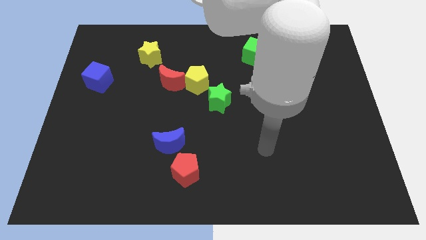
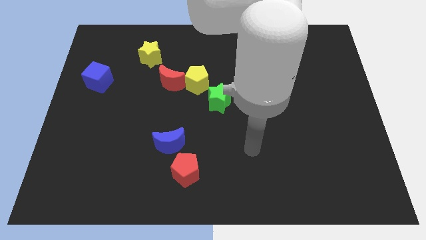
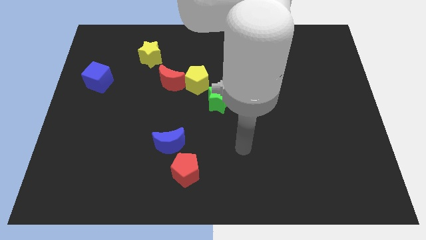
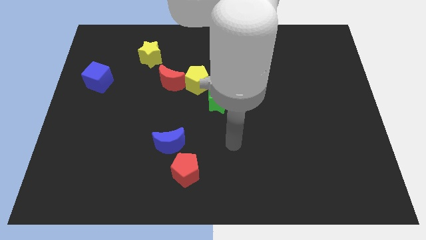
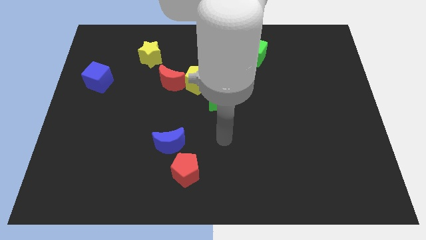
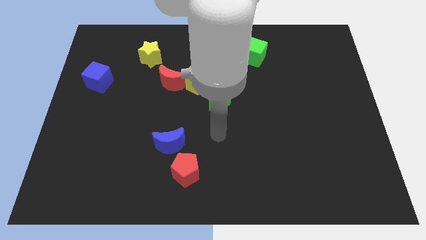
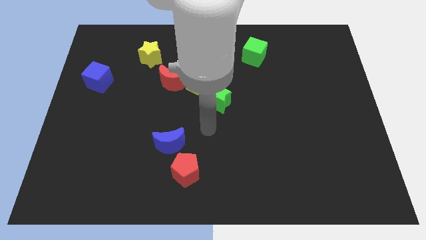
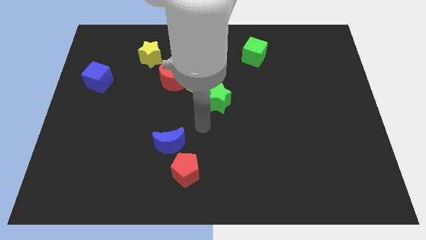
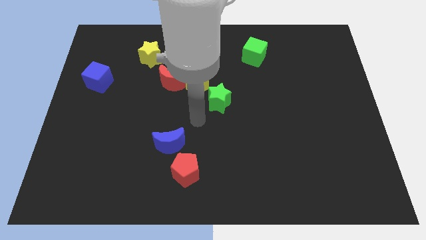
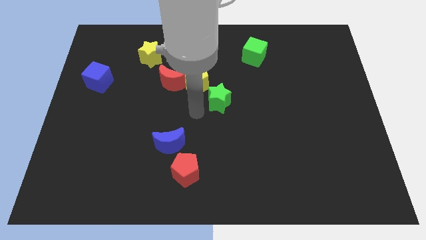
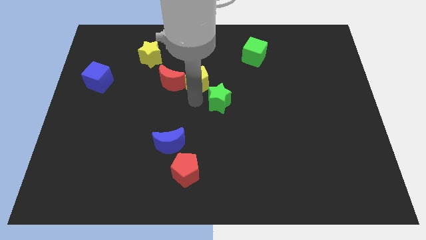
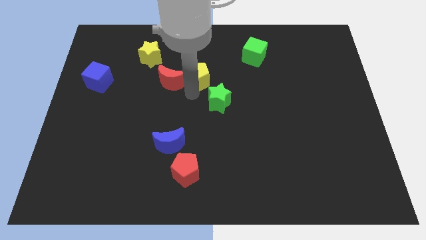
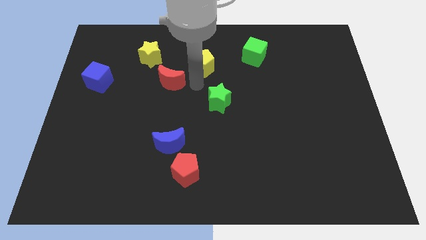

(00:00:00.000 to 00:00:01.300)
pull the red moon apart from the yellow pentagon

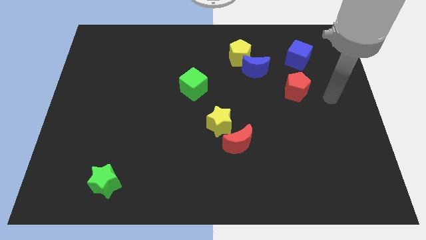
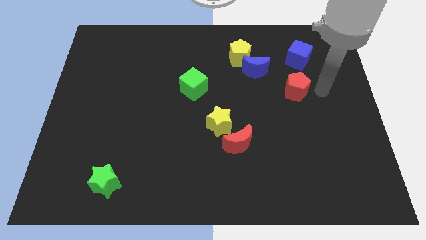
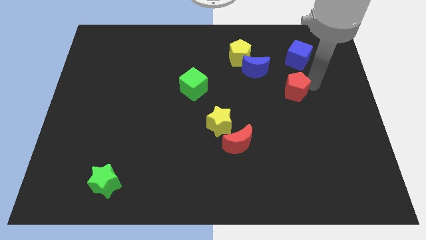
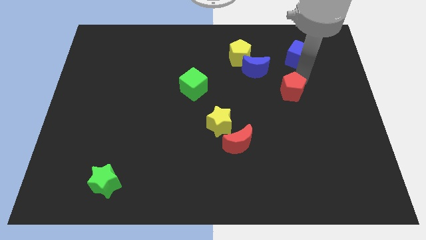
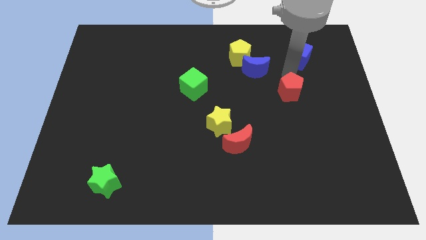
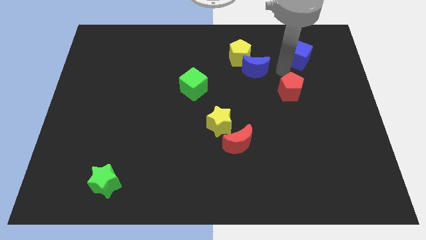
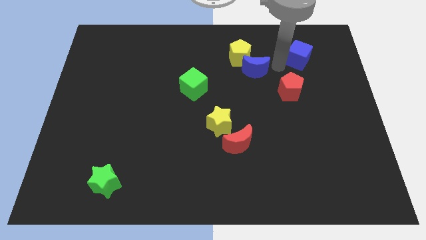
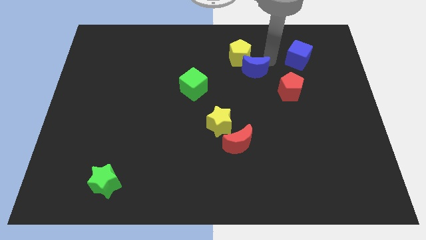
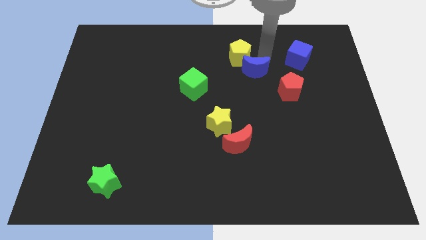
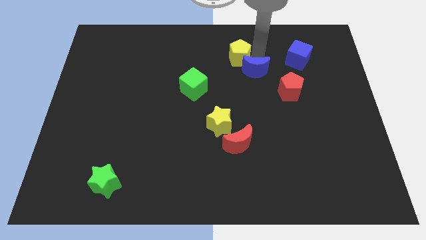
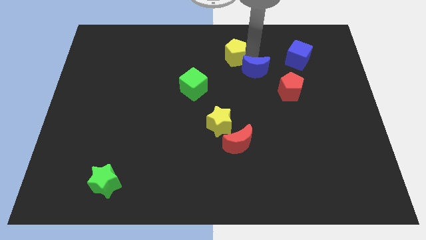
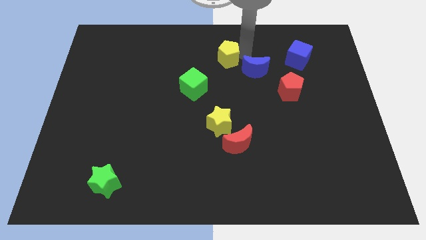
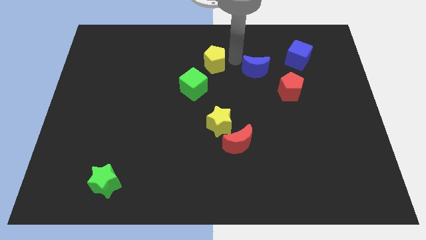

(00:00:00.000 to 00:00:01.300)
separate the blue moon from the yellow pentagon

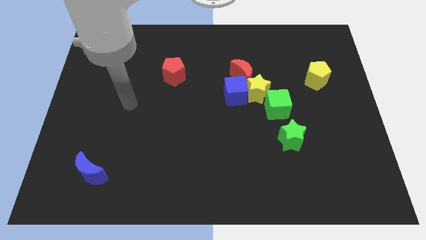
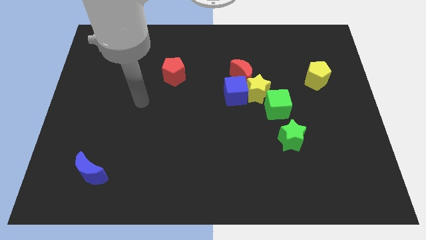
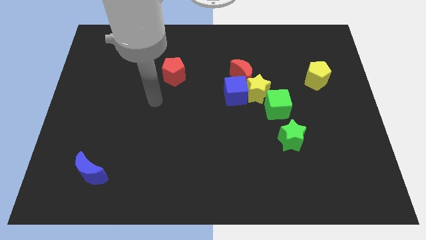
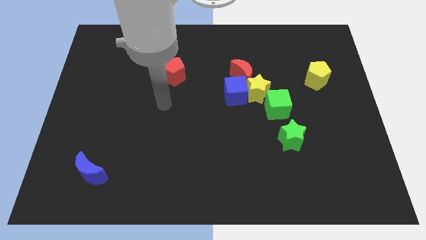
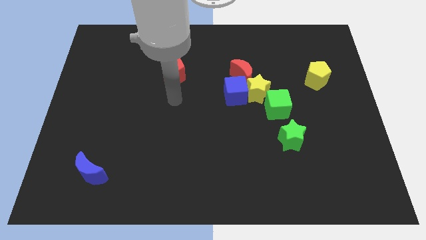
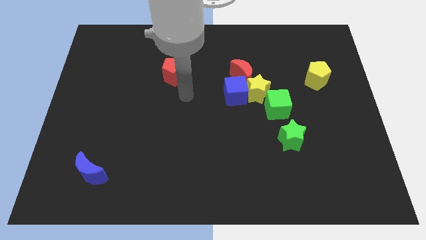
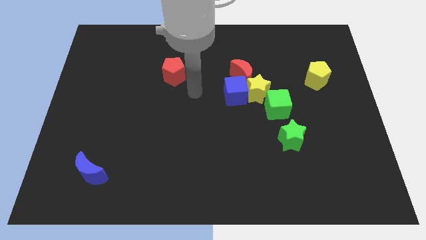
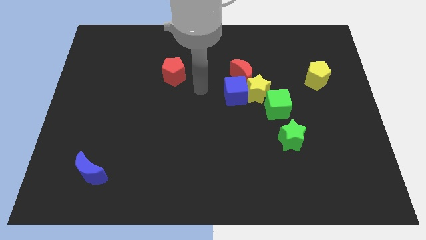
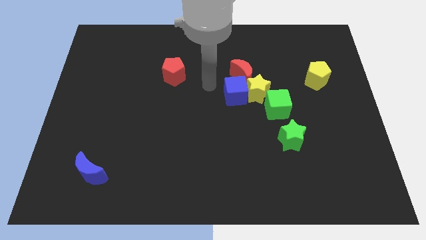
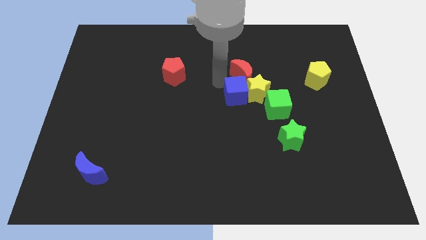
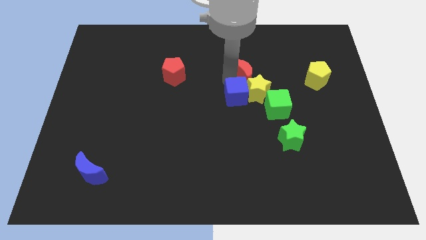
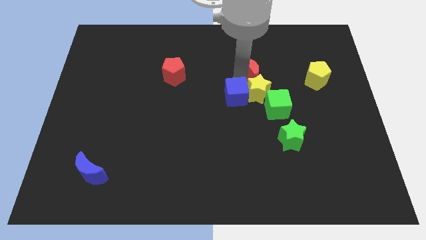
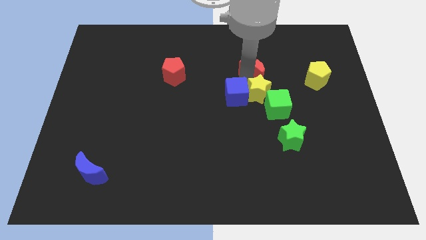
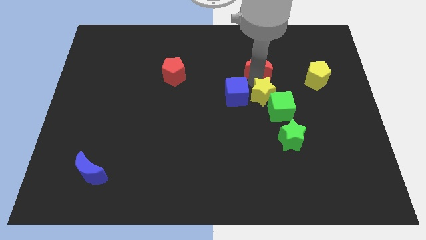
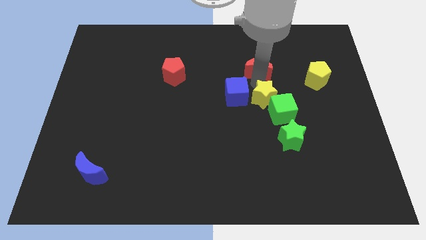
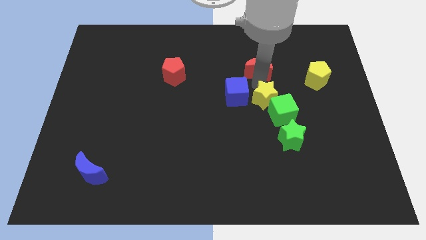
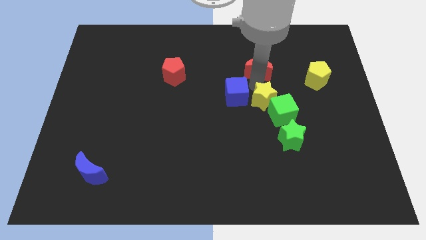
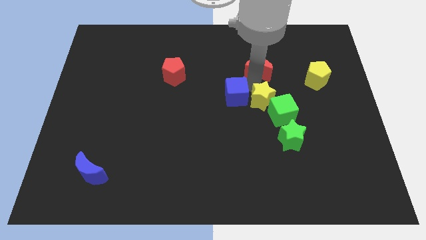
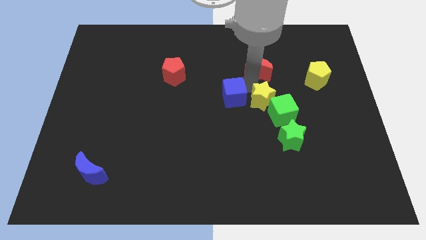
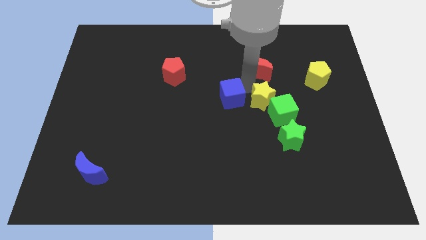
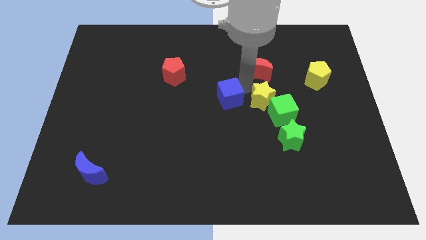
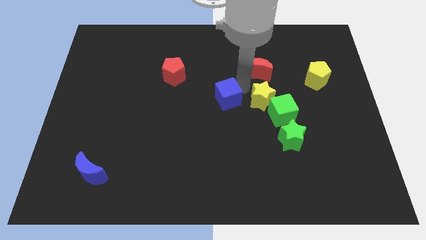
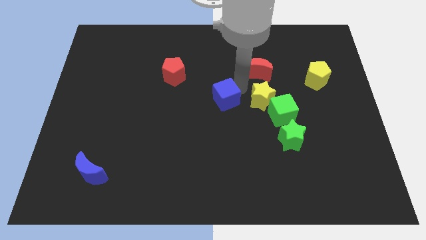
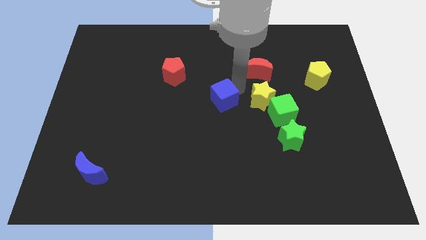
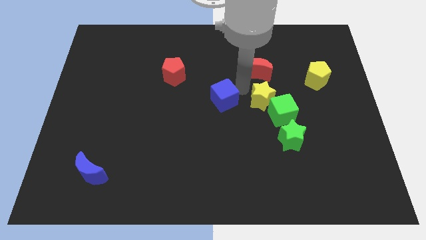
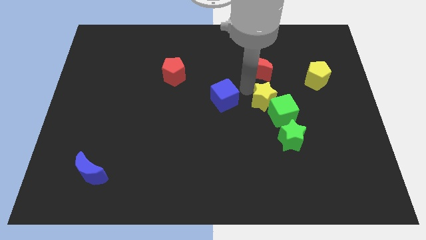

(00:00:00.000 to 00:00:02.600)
pull the blue cube apart from the yellow star and red moon

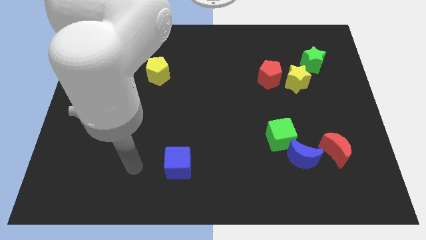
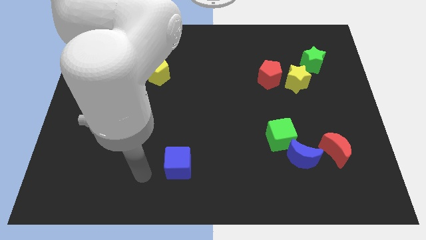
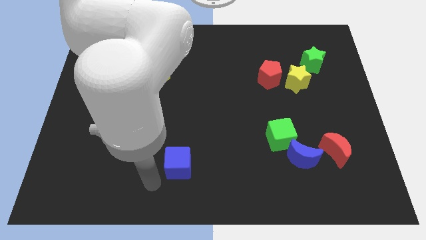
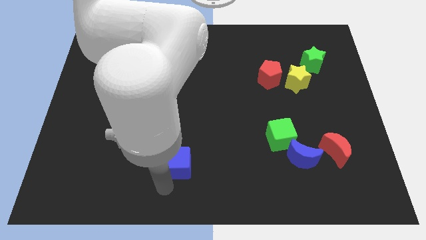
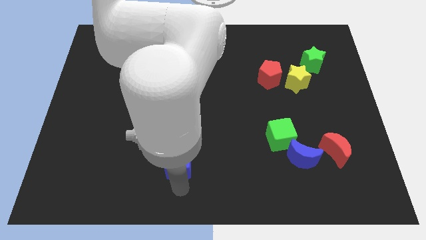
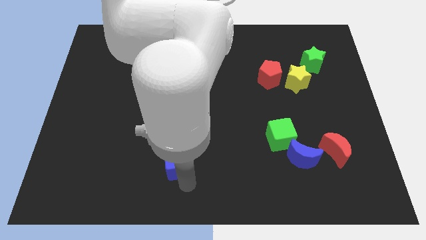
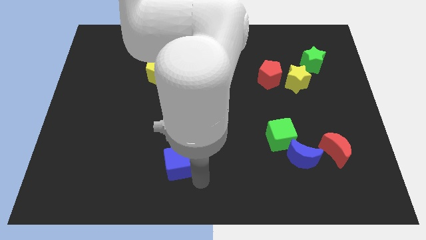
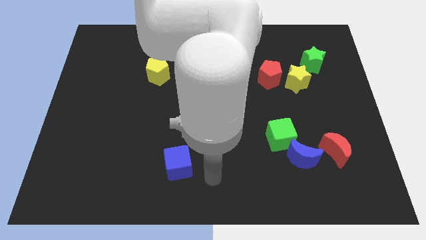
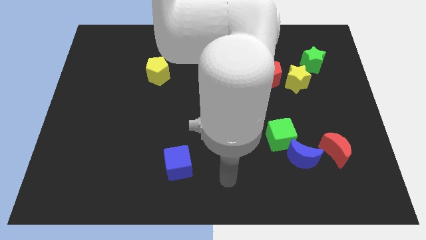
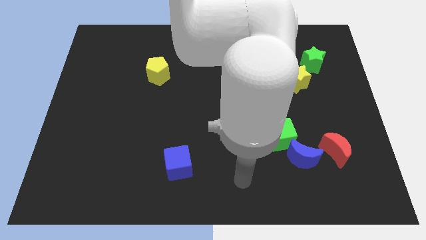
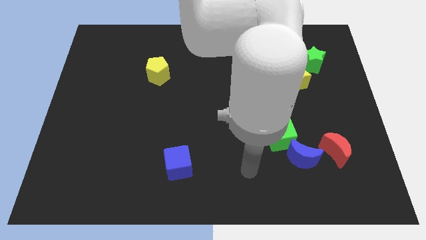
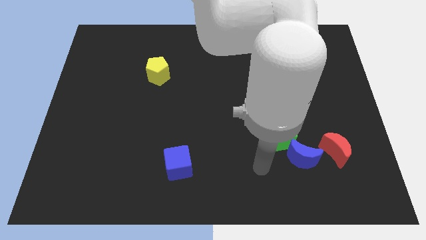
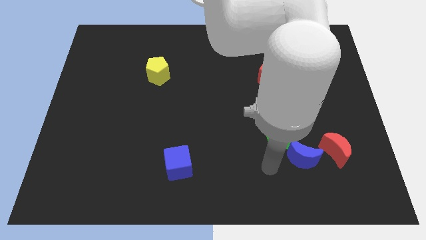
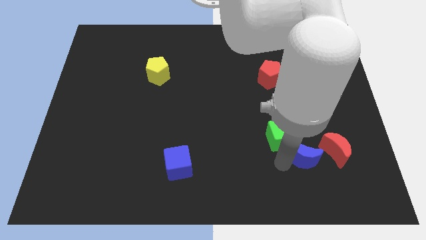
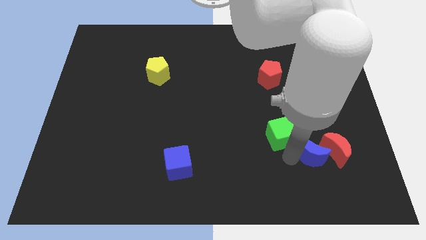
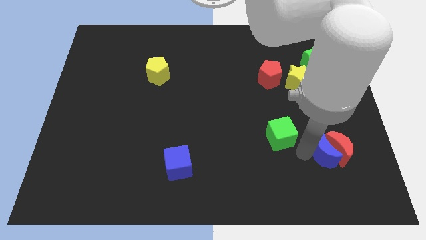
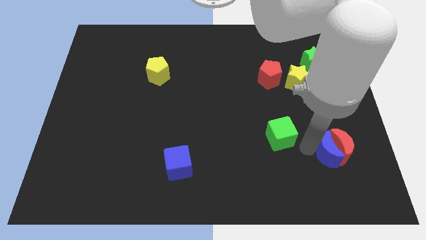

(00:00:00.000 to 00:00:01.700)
move the green cube away from the blue moon

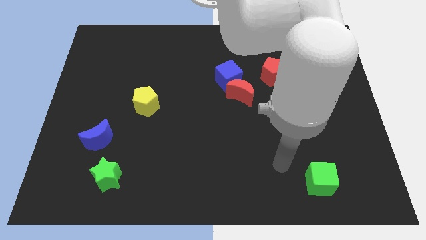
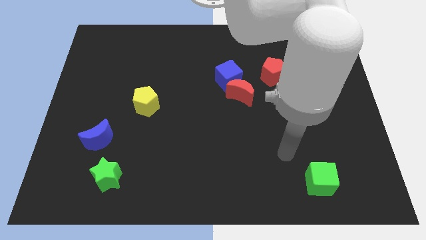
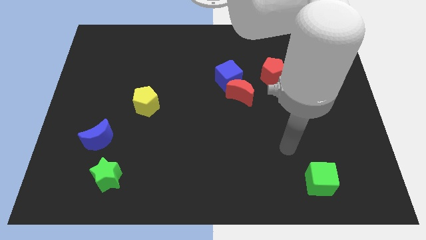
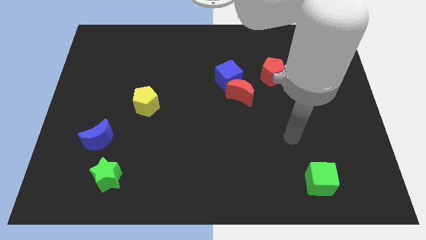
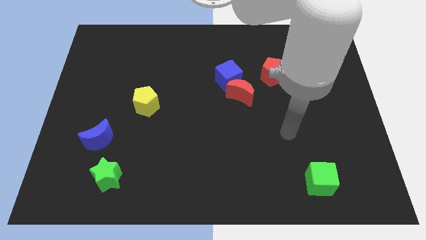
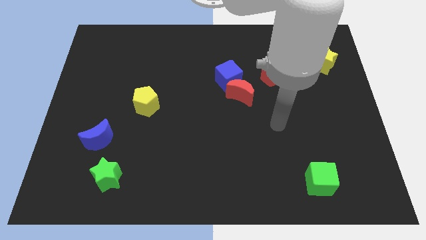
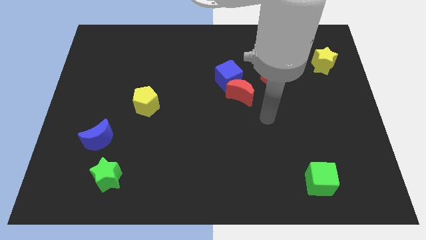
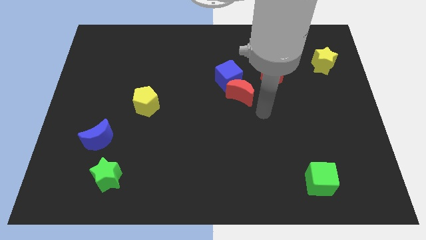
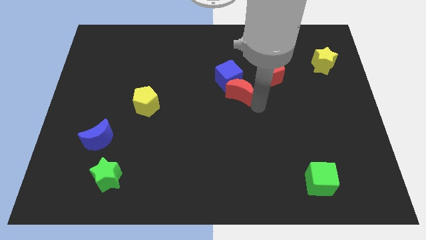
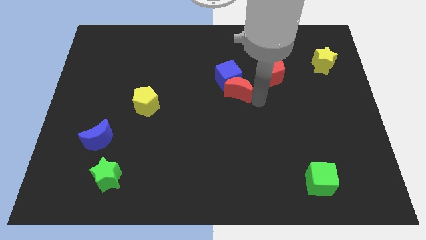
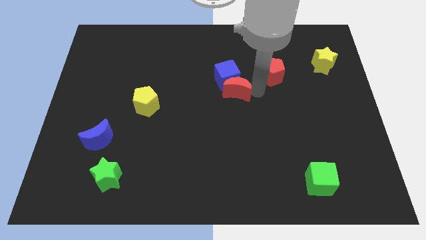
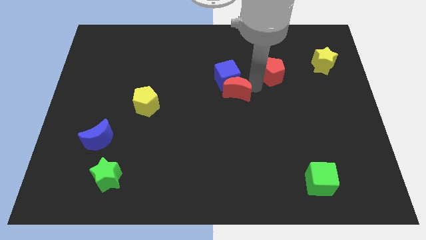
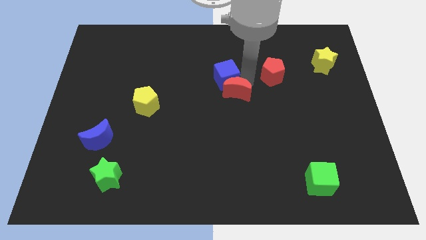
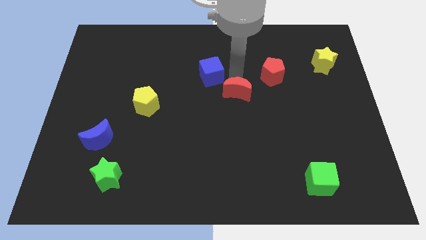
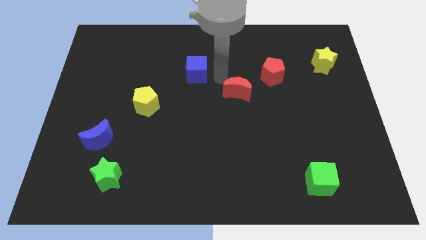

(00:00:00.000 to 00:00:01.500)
pull the red moon apart from the blue cube

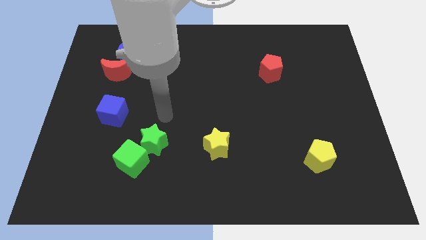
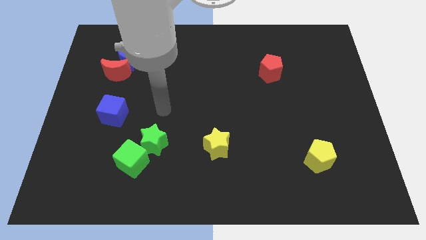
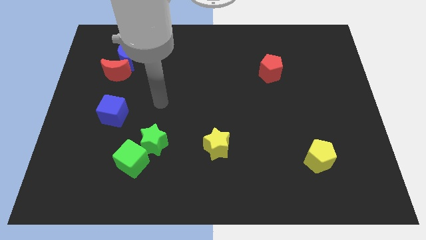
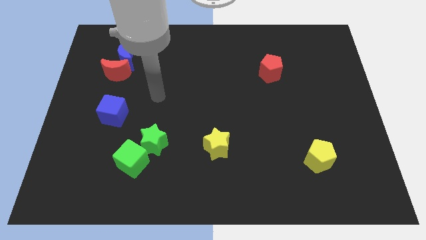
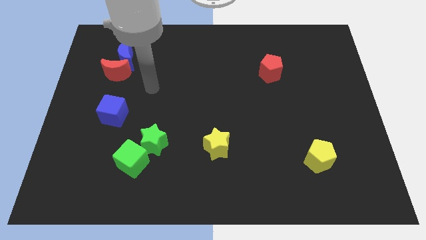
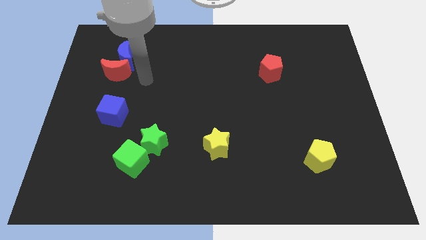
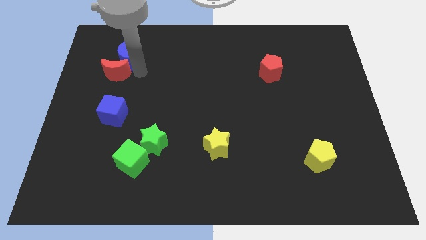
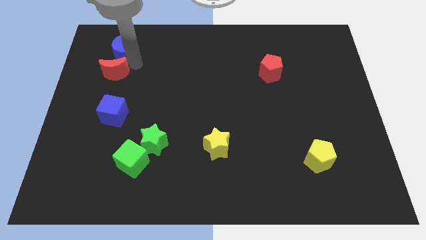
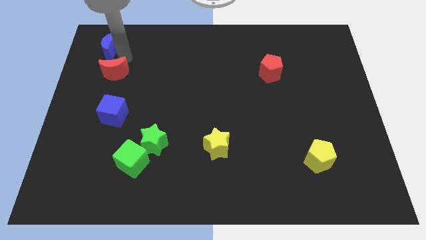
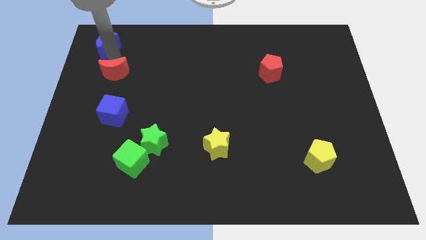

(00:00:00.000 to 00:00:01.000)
separate the red moon from the blue moon
